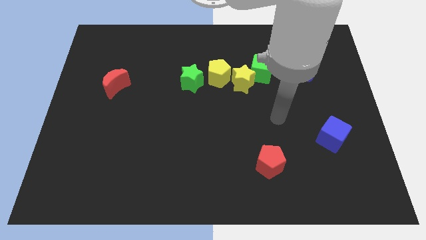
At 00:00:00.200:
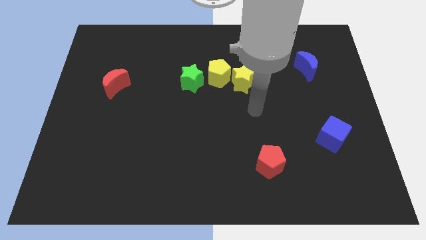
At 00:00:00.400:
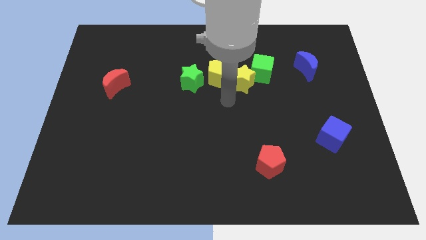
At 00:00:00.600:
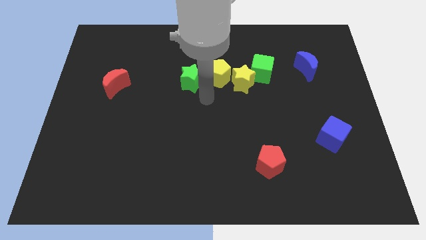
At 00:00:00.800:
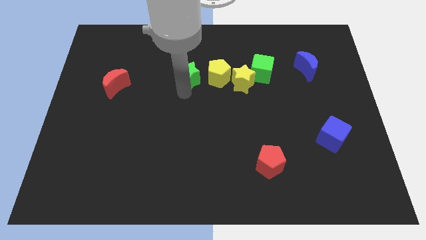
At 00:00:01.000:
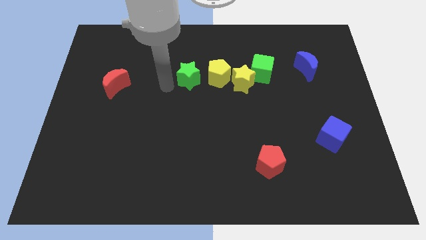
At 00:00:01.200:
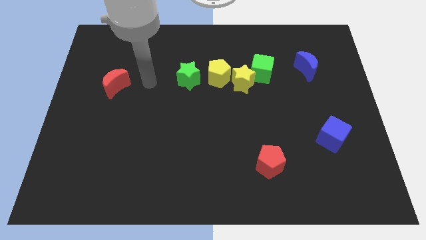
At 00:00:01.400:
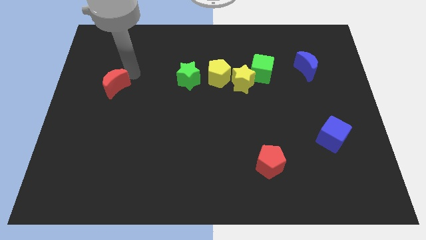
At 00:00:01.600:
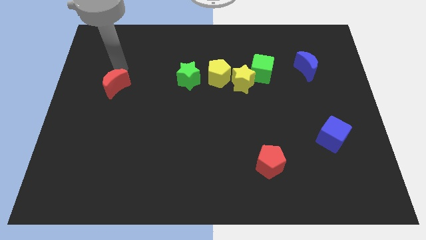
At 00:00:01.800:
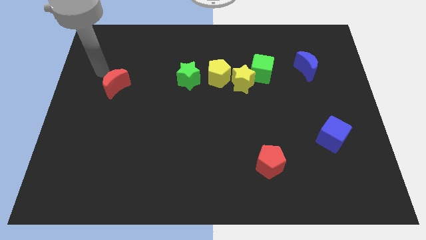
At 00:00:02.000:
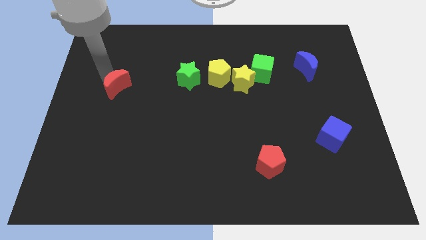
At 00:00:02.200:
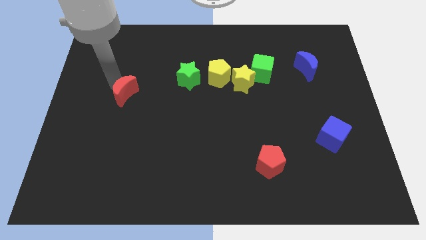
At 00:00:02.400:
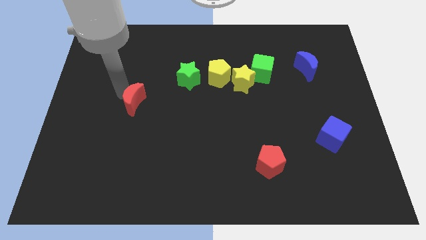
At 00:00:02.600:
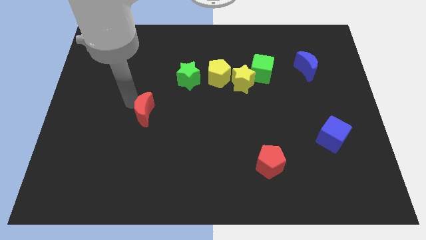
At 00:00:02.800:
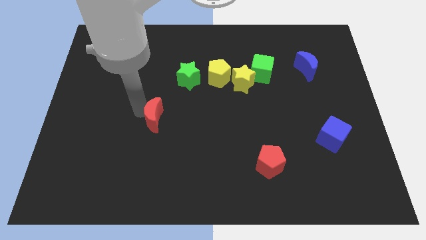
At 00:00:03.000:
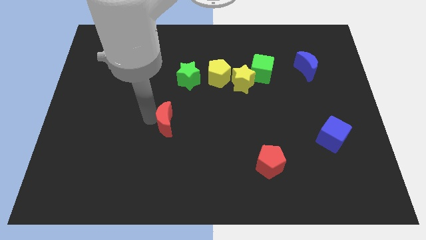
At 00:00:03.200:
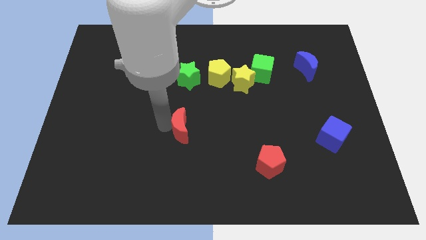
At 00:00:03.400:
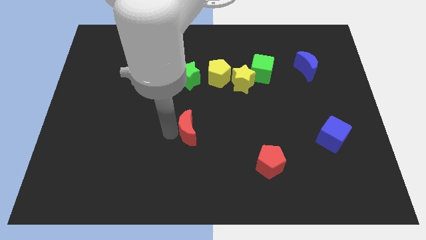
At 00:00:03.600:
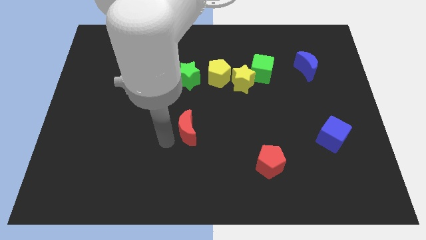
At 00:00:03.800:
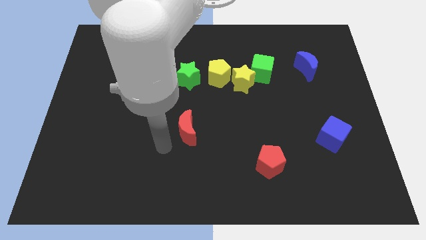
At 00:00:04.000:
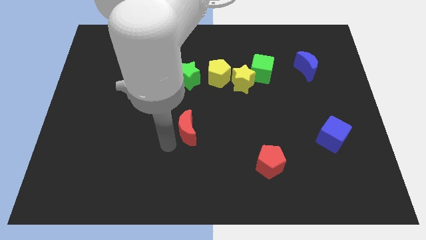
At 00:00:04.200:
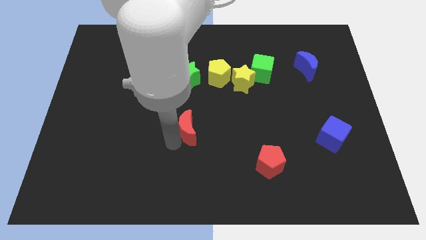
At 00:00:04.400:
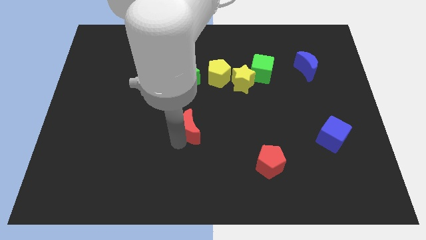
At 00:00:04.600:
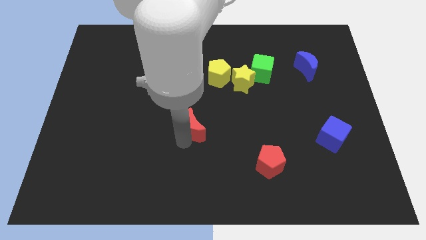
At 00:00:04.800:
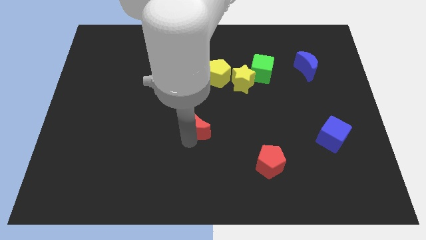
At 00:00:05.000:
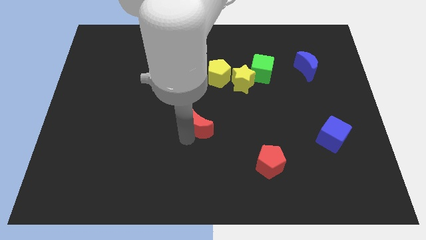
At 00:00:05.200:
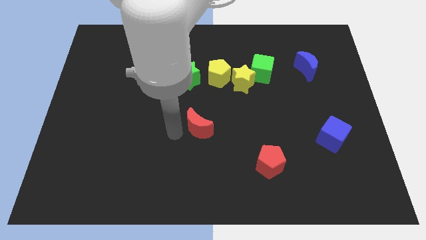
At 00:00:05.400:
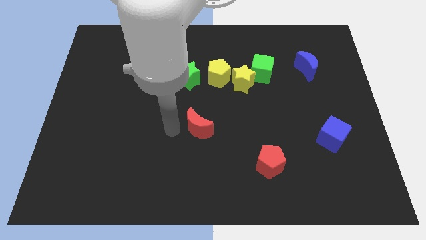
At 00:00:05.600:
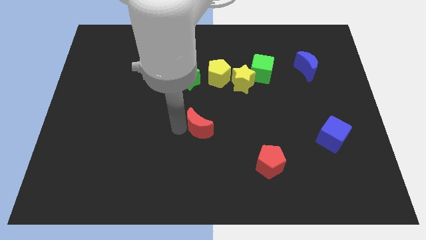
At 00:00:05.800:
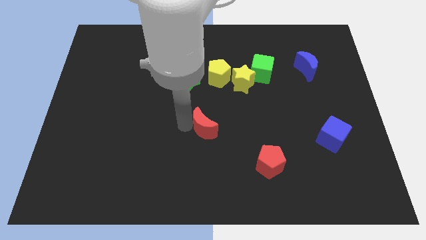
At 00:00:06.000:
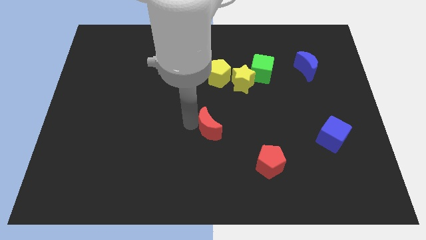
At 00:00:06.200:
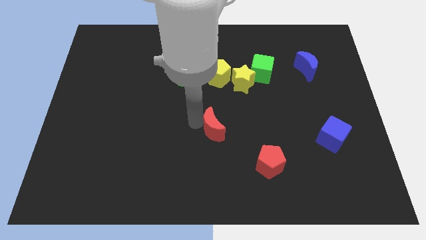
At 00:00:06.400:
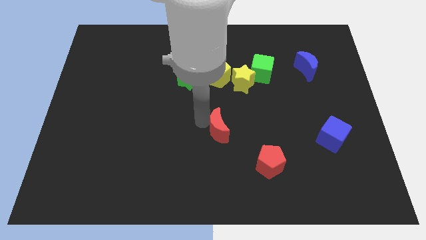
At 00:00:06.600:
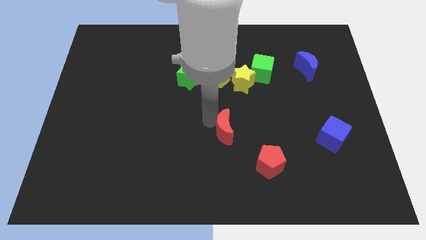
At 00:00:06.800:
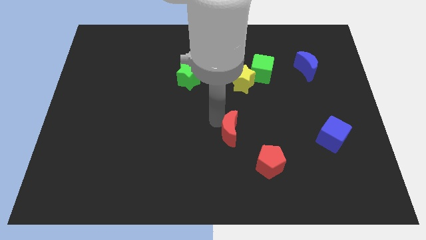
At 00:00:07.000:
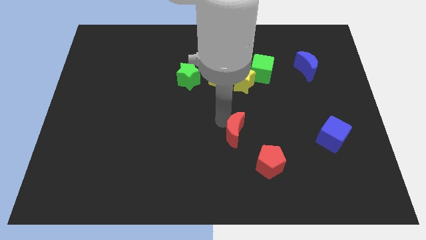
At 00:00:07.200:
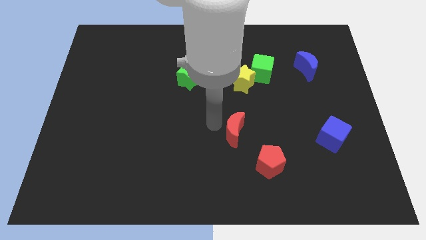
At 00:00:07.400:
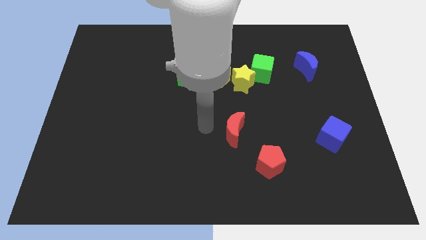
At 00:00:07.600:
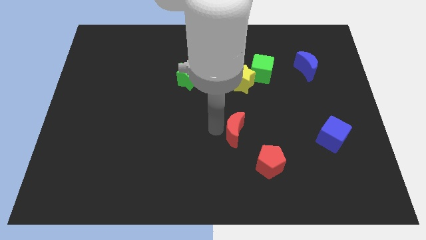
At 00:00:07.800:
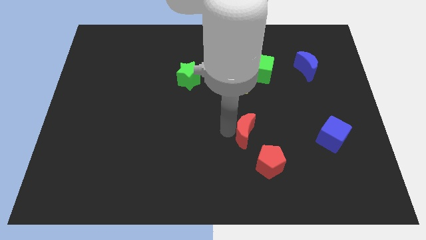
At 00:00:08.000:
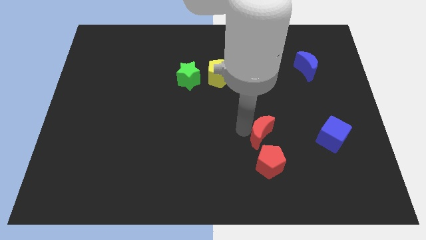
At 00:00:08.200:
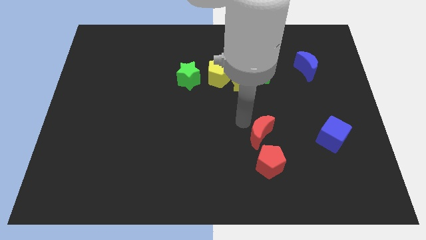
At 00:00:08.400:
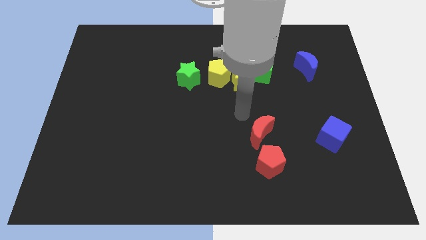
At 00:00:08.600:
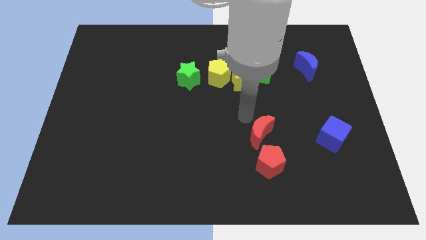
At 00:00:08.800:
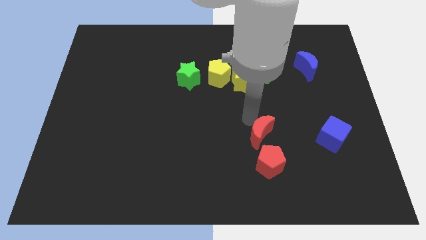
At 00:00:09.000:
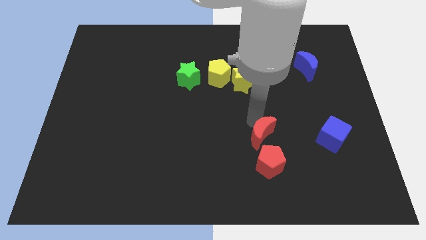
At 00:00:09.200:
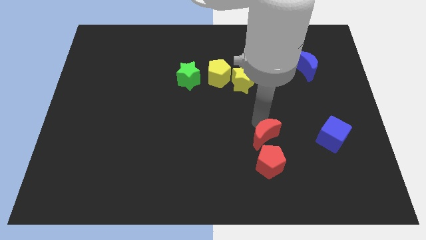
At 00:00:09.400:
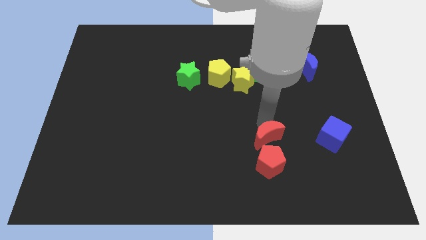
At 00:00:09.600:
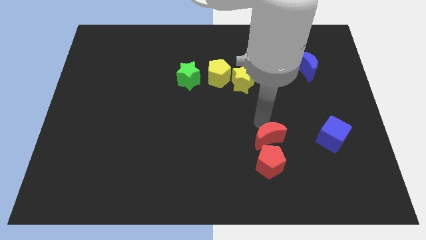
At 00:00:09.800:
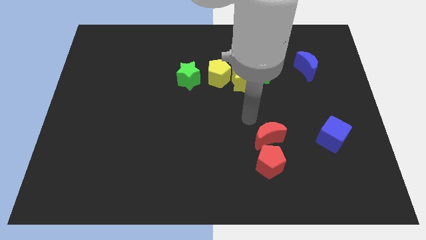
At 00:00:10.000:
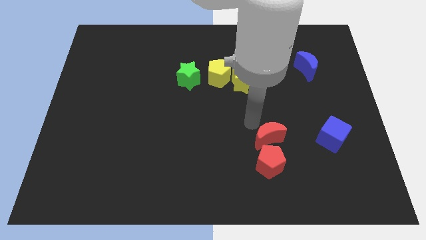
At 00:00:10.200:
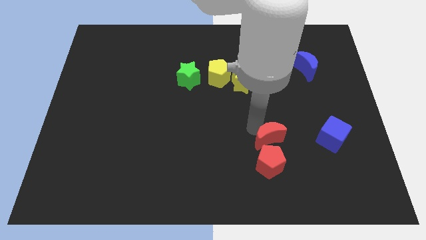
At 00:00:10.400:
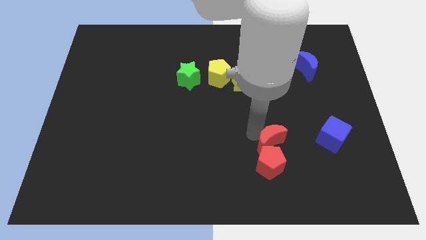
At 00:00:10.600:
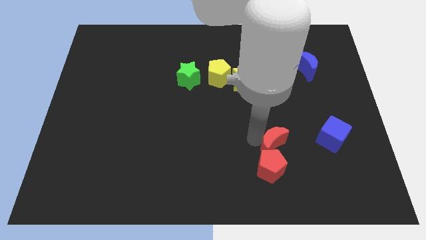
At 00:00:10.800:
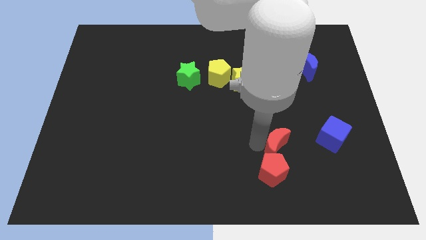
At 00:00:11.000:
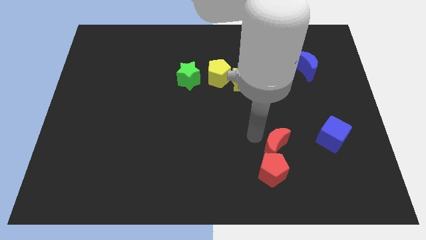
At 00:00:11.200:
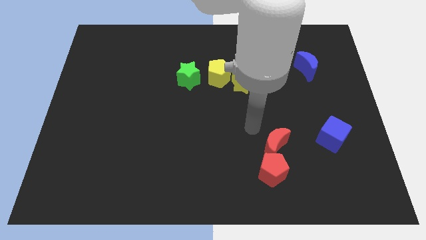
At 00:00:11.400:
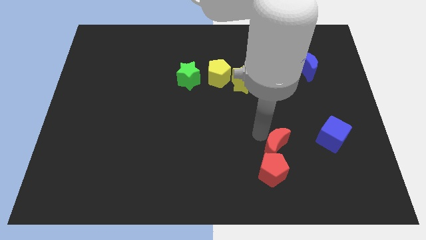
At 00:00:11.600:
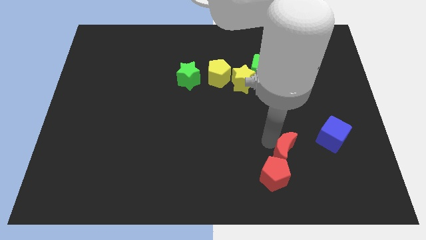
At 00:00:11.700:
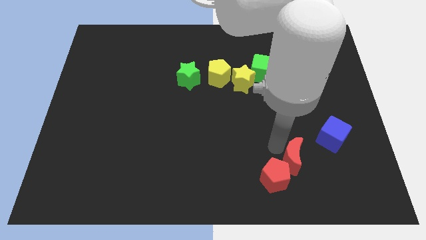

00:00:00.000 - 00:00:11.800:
move the red moon just right of the red pentagon
